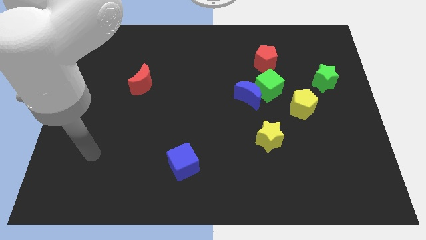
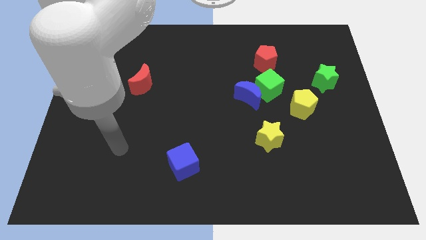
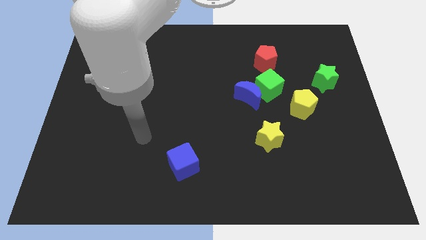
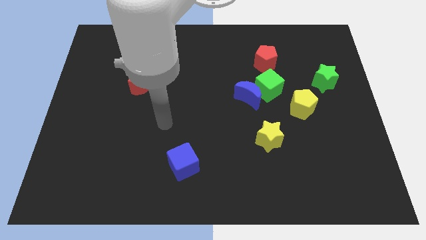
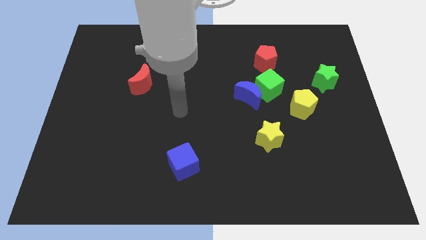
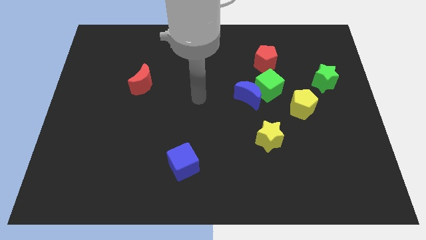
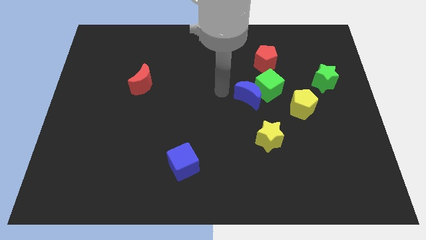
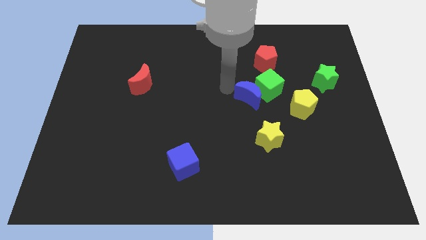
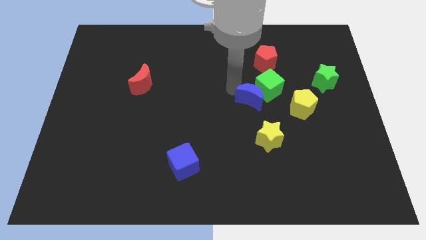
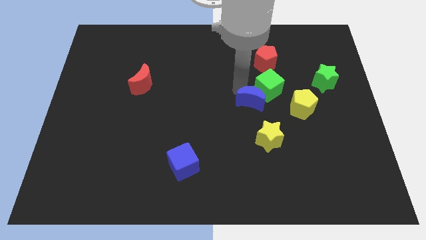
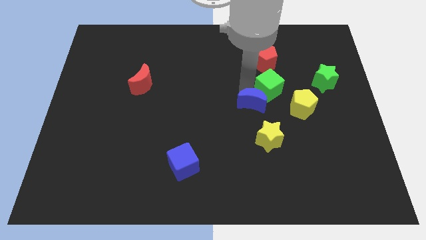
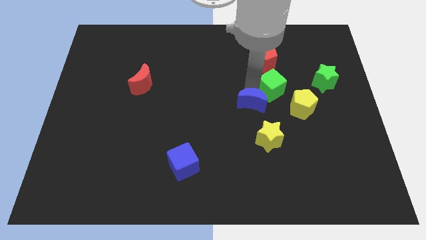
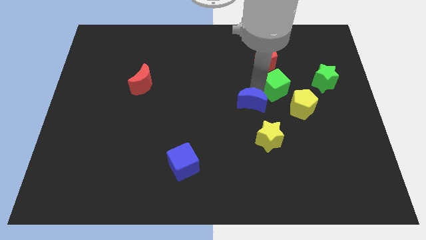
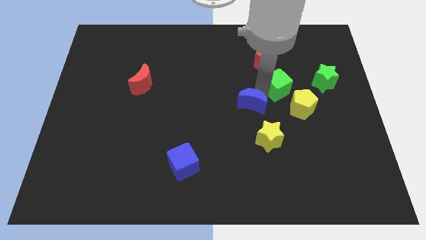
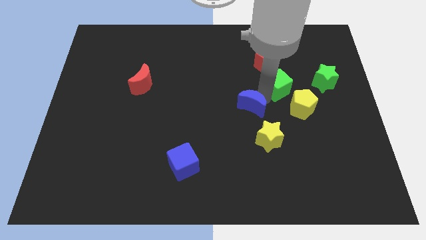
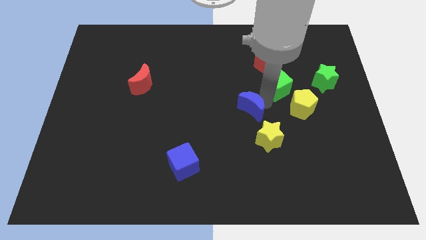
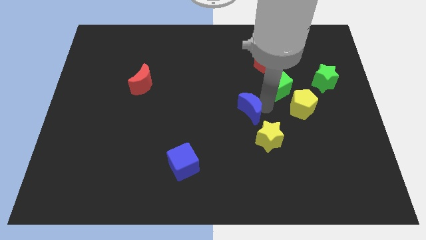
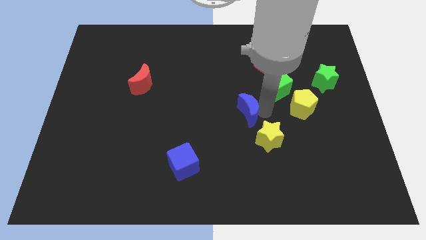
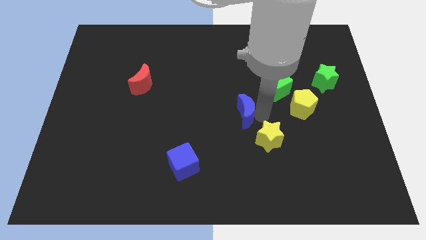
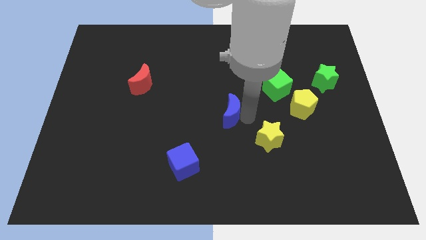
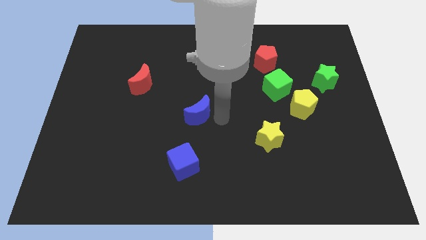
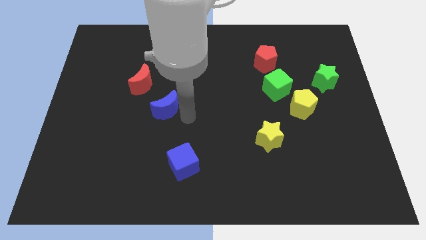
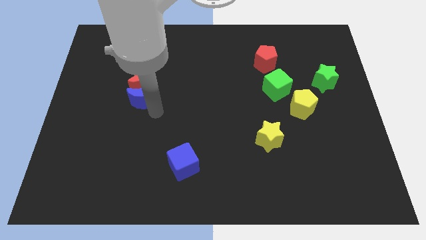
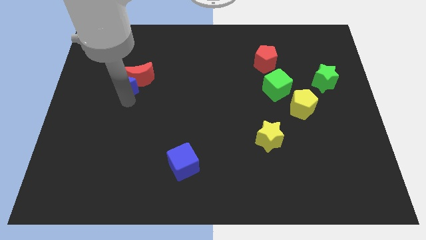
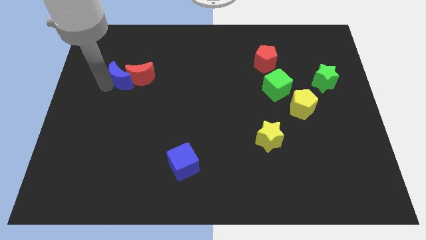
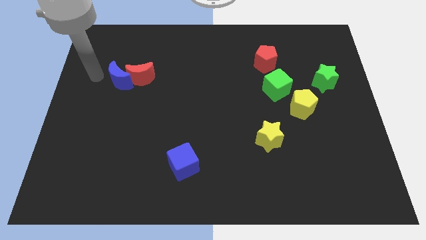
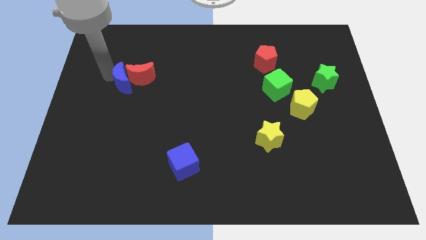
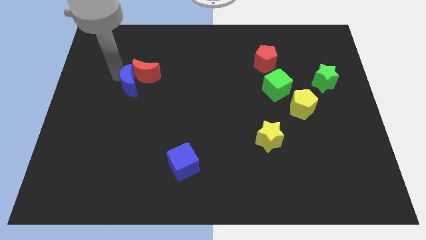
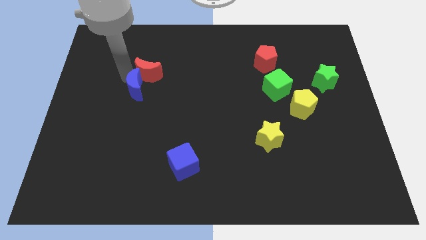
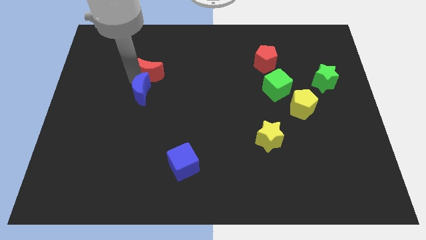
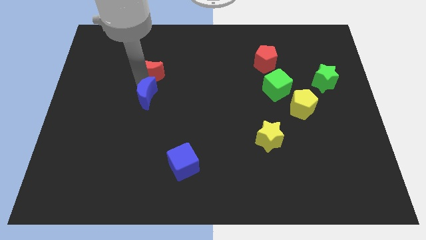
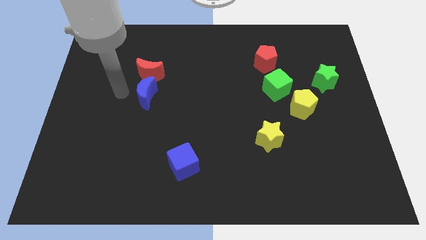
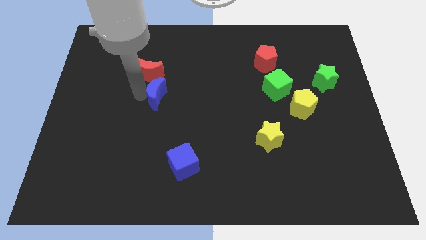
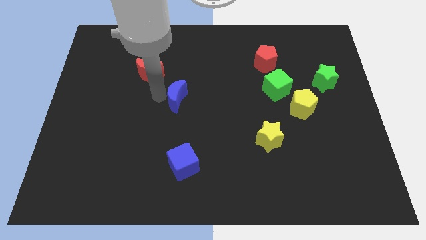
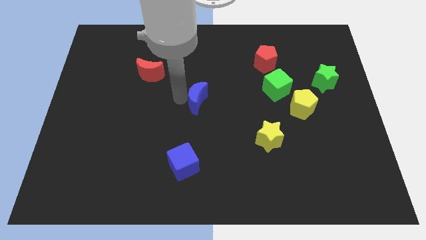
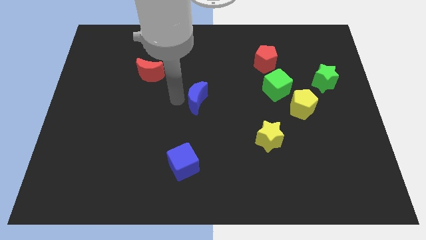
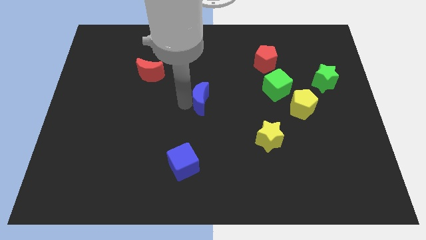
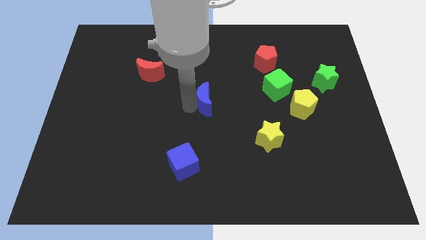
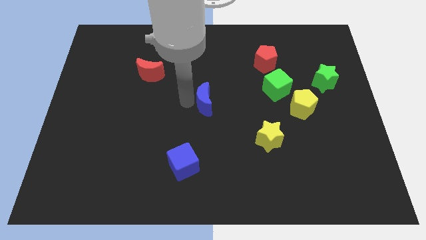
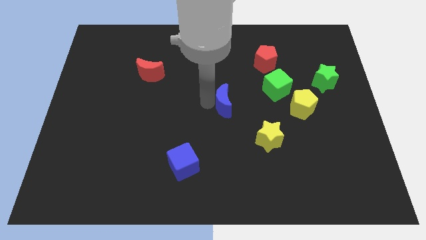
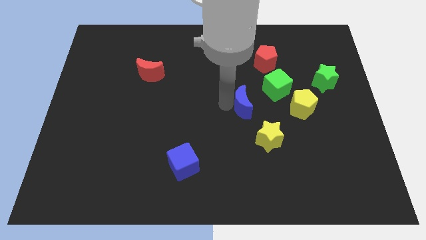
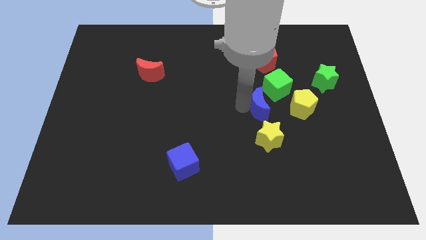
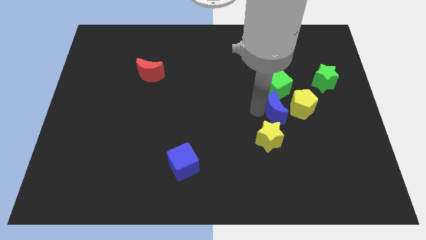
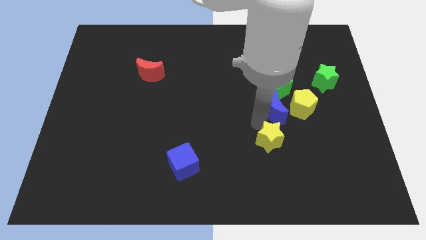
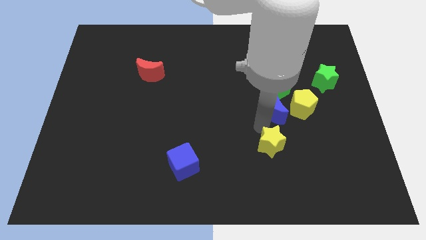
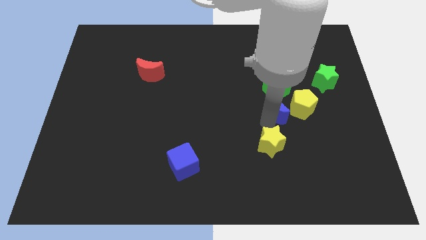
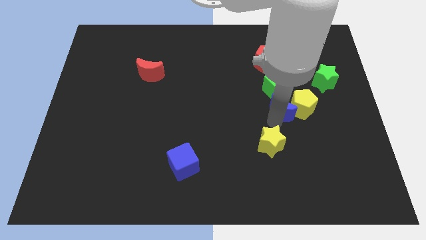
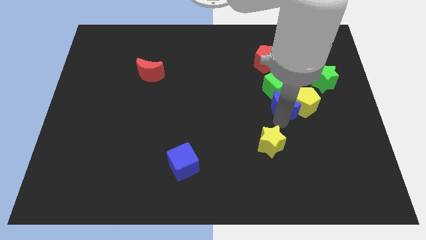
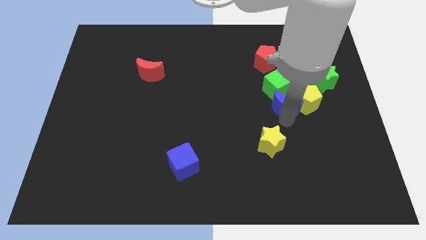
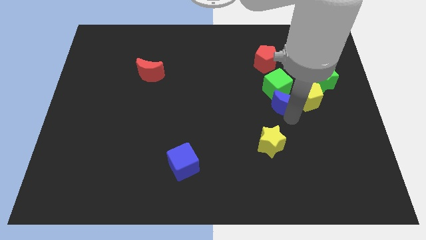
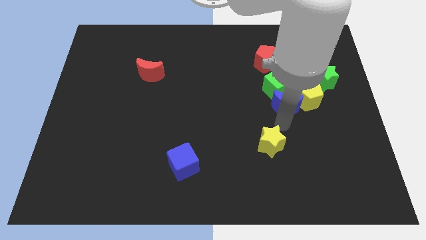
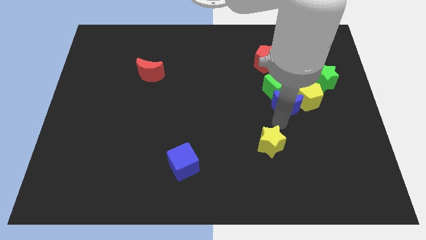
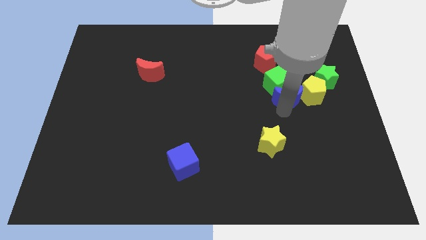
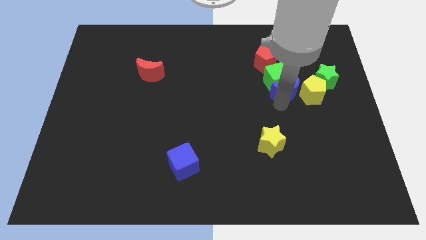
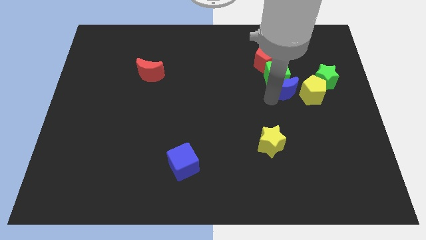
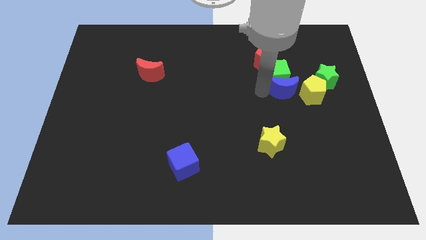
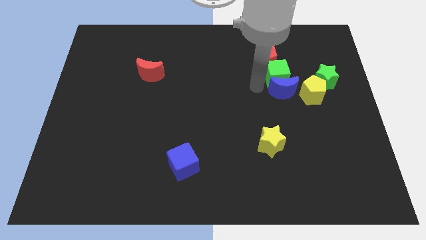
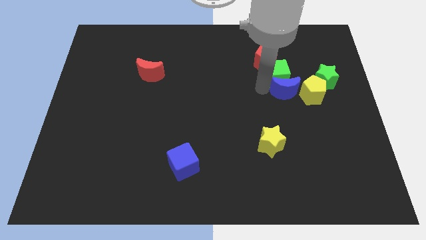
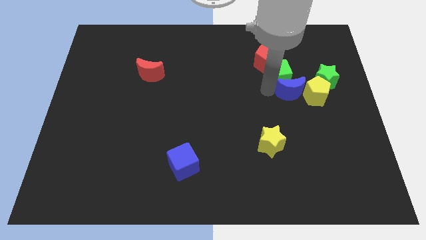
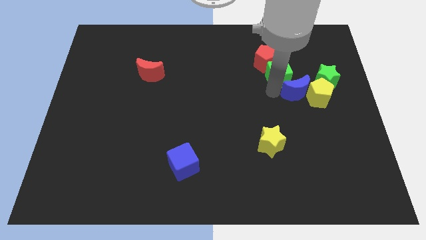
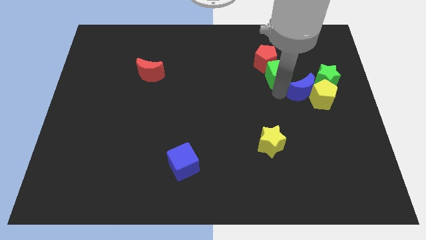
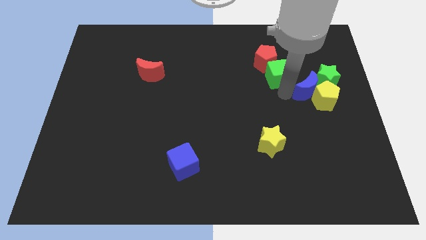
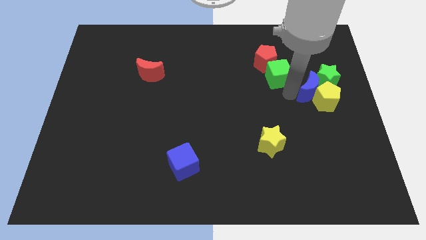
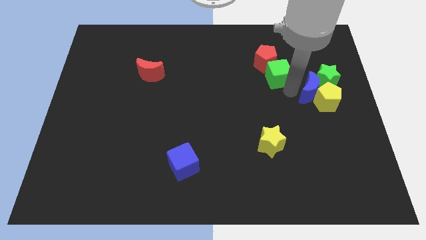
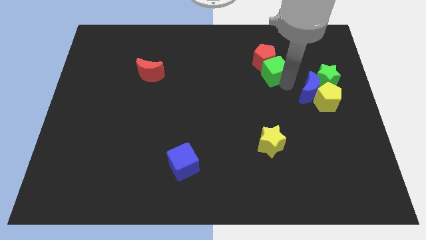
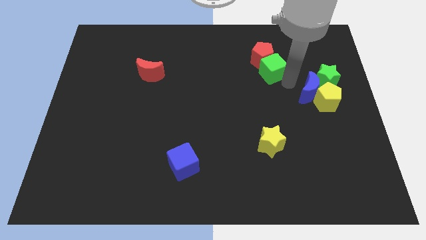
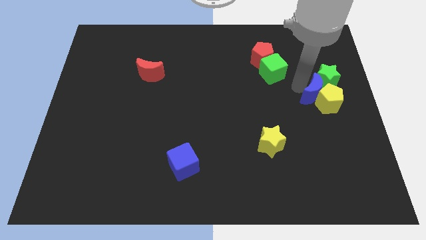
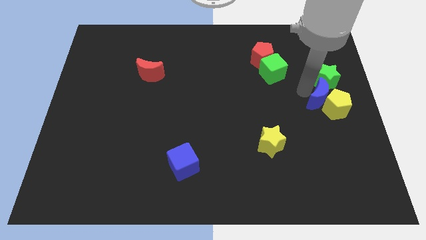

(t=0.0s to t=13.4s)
put the blue moon to the right side of the board

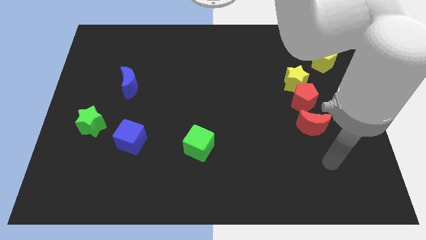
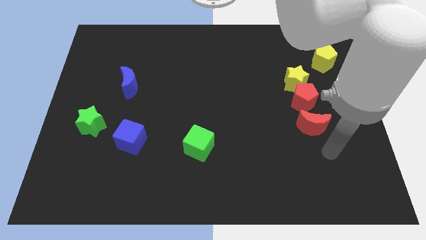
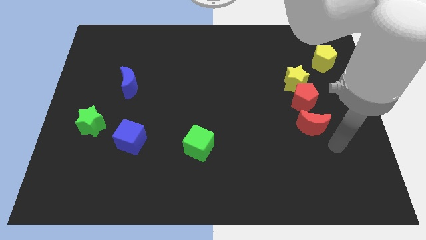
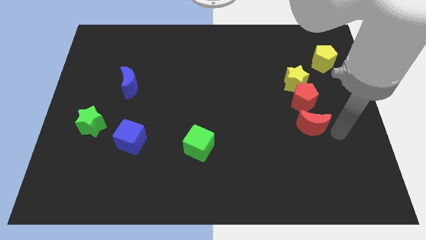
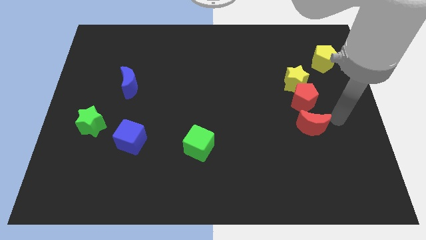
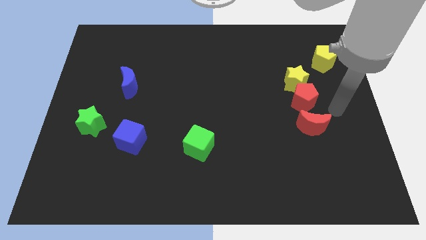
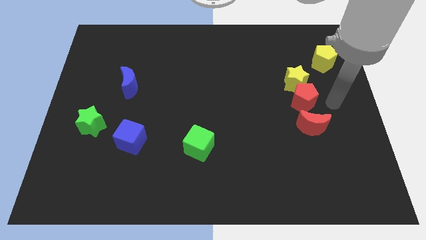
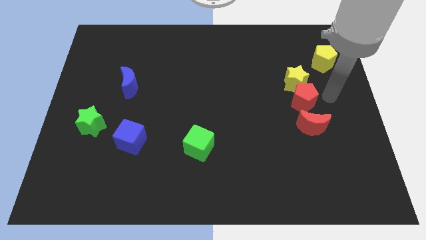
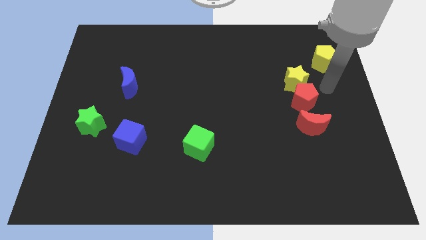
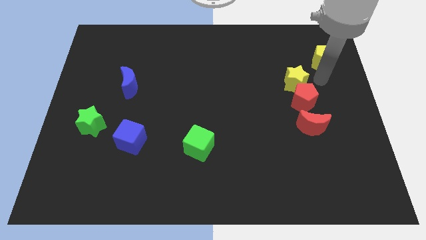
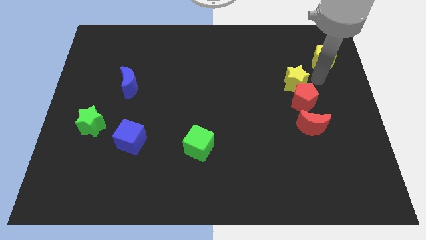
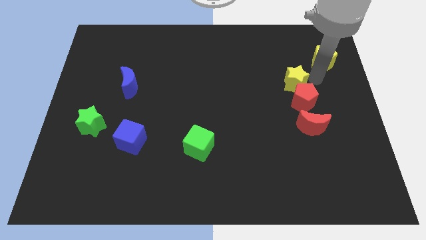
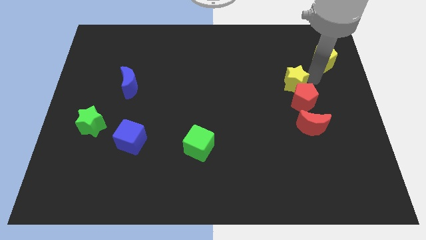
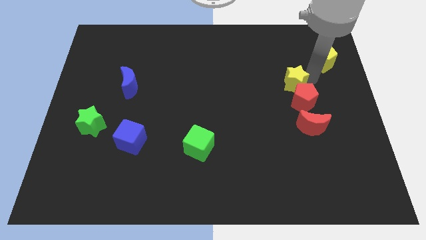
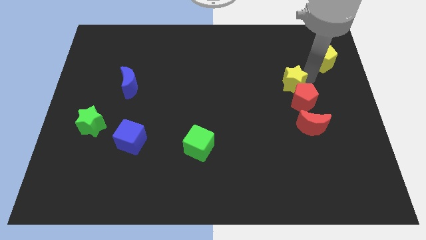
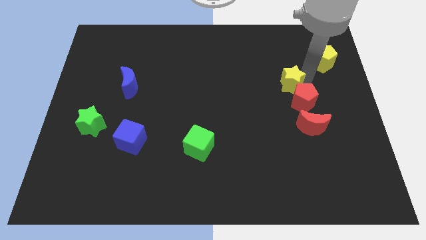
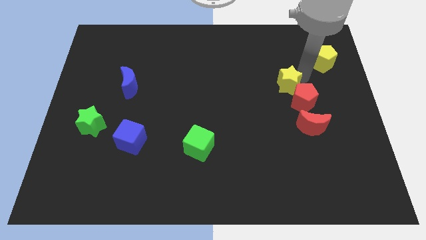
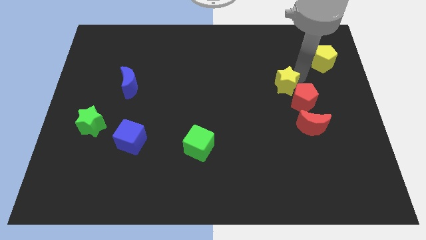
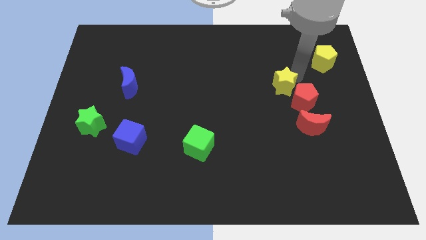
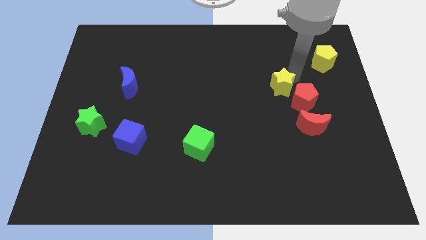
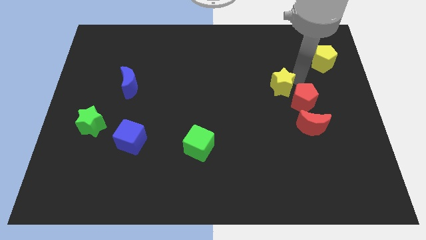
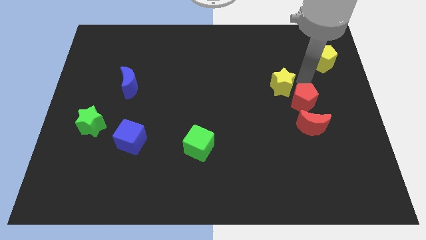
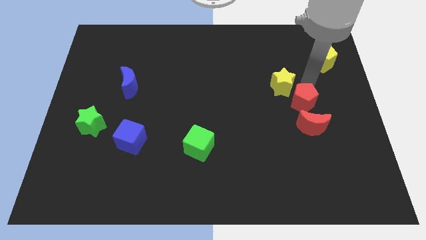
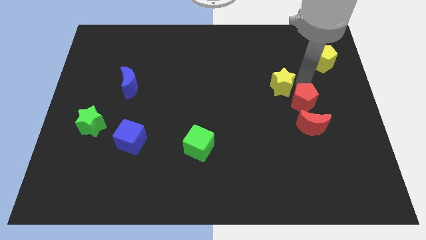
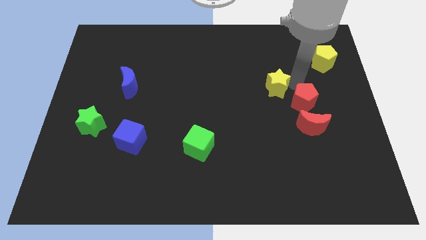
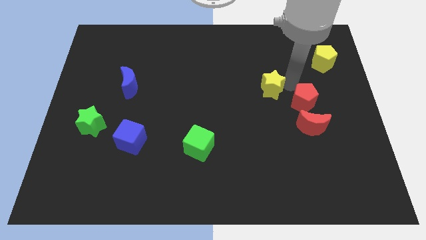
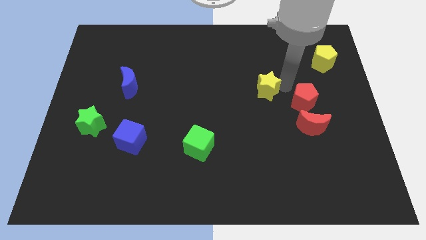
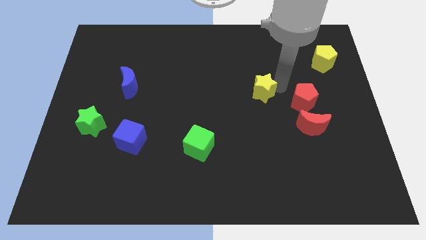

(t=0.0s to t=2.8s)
put the yellow star to the center of the board
